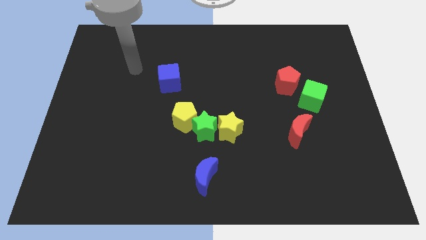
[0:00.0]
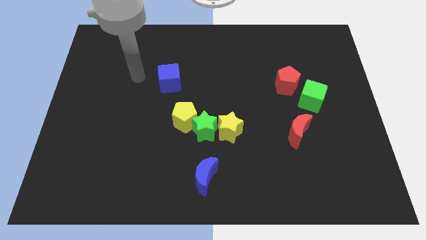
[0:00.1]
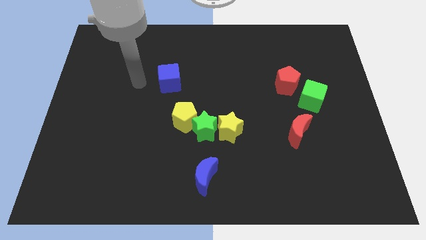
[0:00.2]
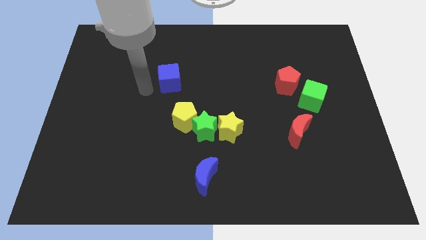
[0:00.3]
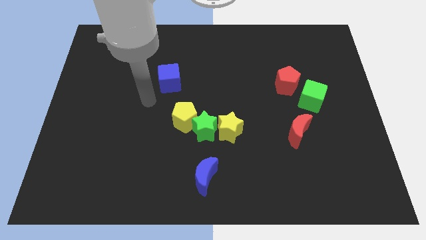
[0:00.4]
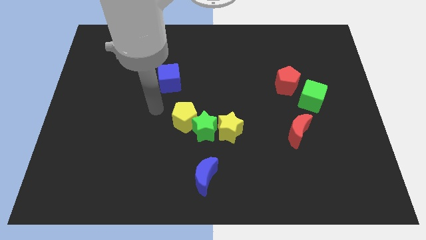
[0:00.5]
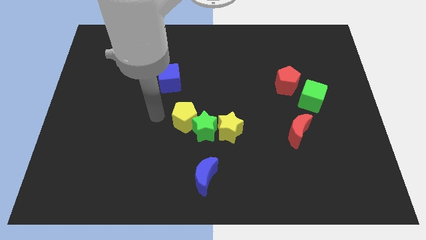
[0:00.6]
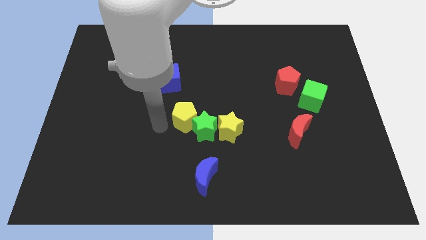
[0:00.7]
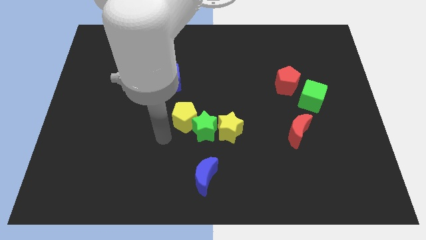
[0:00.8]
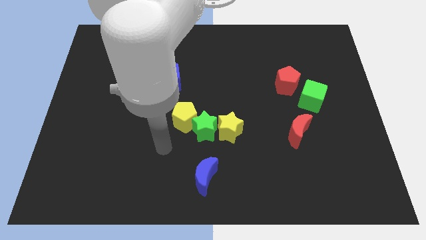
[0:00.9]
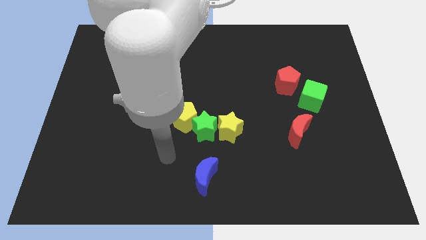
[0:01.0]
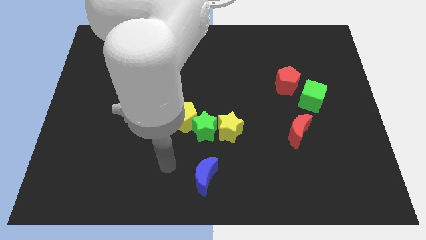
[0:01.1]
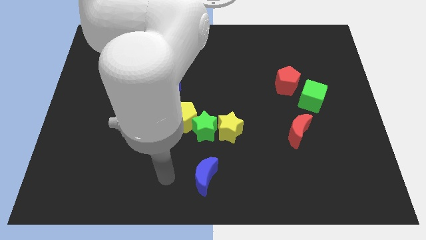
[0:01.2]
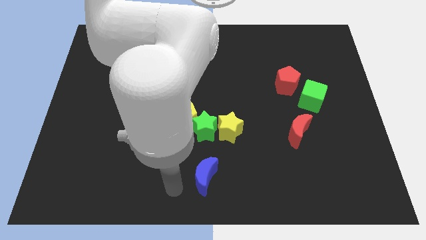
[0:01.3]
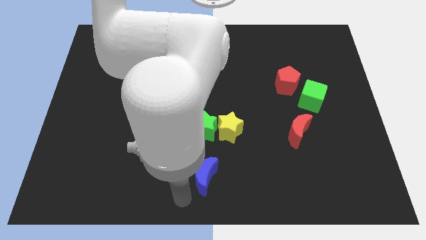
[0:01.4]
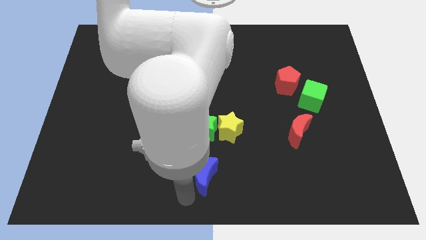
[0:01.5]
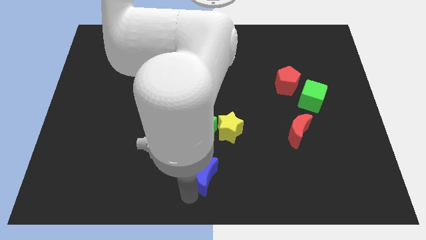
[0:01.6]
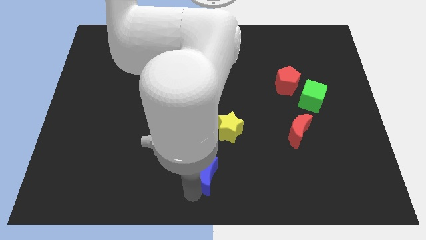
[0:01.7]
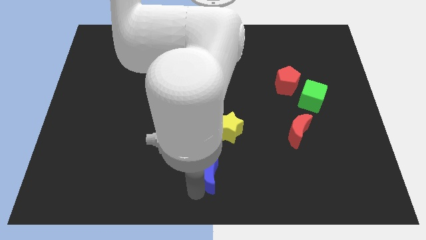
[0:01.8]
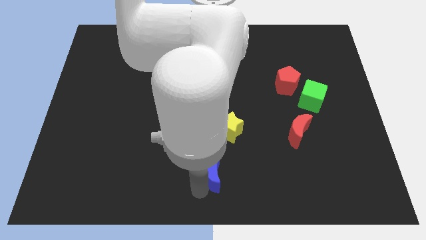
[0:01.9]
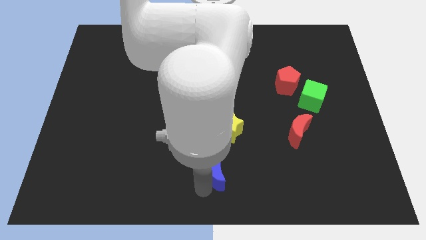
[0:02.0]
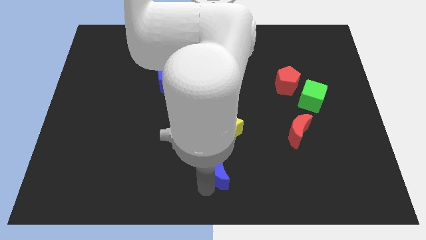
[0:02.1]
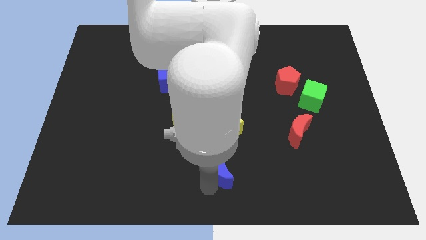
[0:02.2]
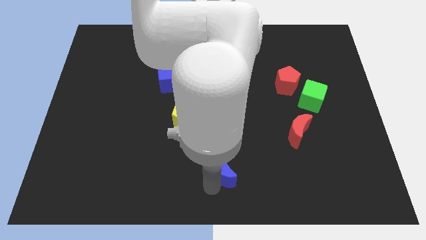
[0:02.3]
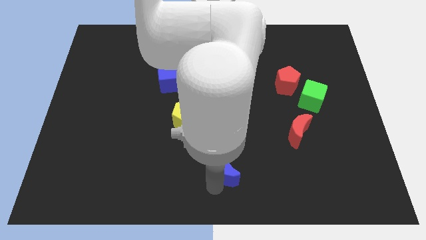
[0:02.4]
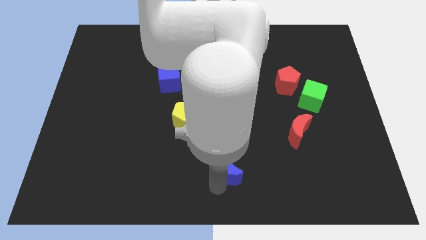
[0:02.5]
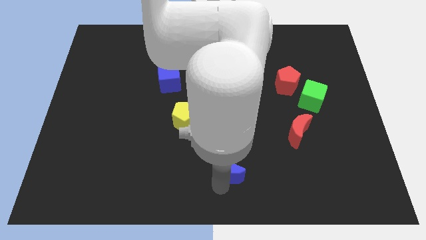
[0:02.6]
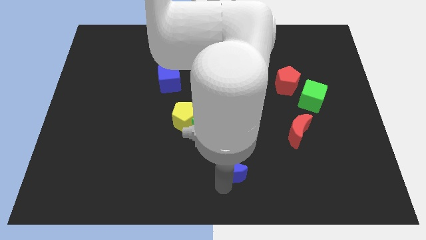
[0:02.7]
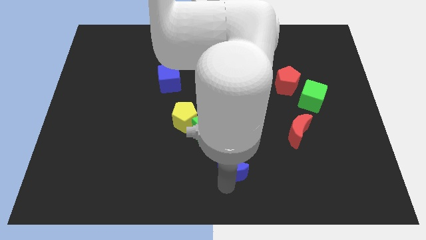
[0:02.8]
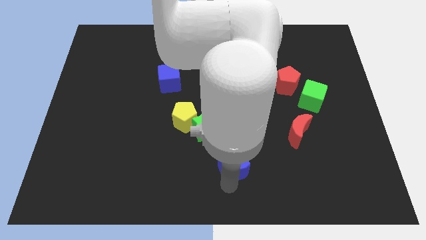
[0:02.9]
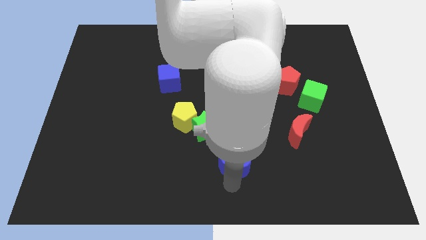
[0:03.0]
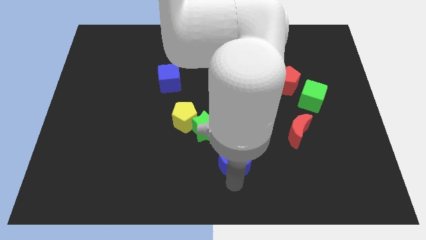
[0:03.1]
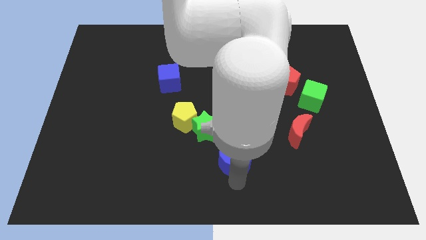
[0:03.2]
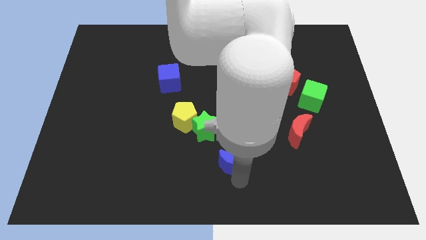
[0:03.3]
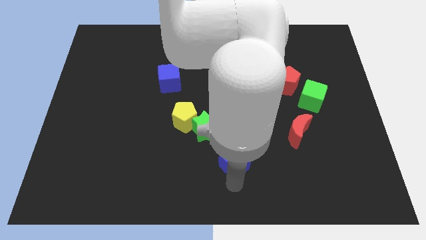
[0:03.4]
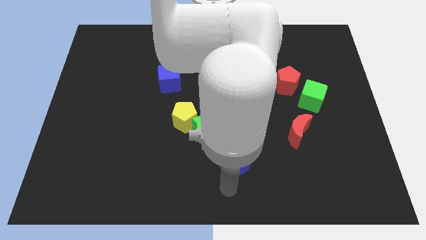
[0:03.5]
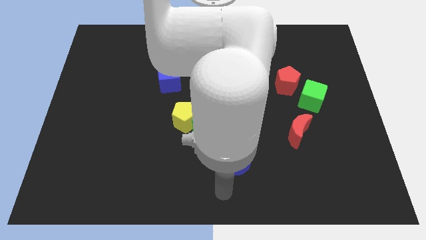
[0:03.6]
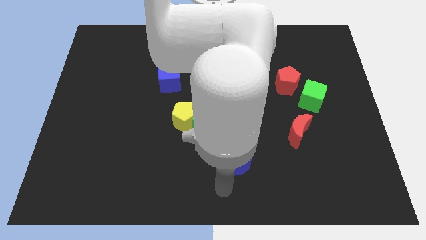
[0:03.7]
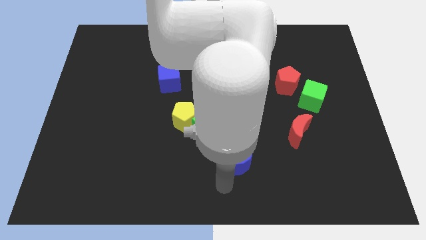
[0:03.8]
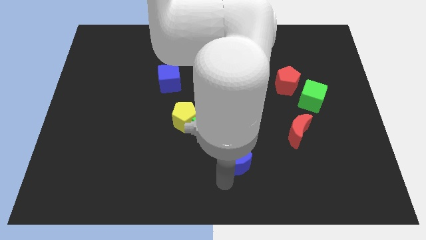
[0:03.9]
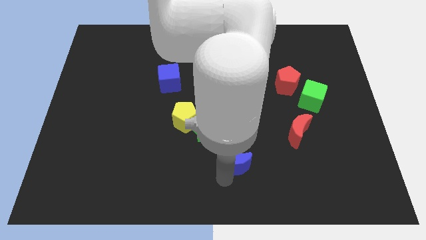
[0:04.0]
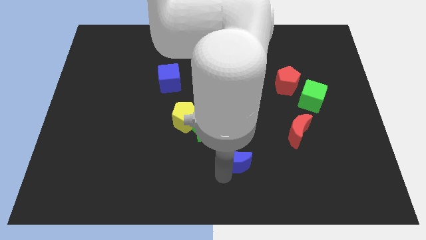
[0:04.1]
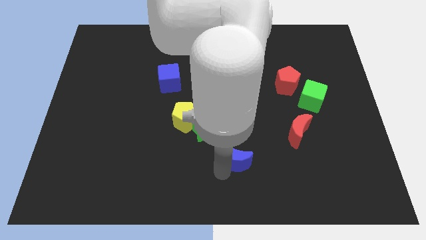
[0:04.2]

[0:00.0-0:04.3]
slide the blue moon upwards and to the right diagonally slightly

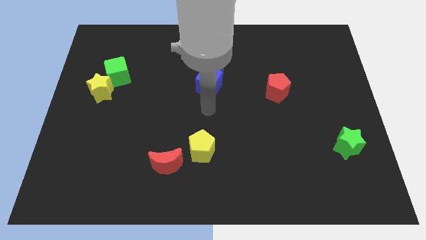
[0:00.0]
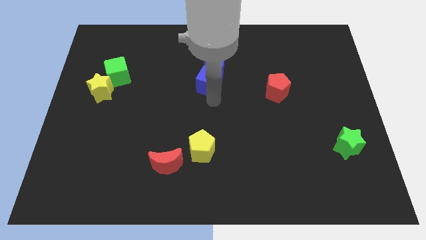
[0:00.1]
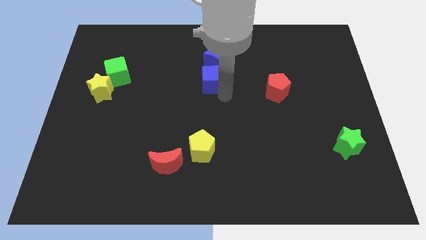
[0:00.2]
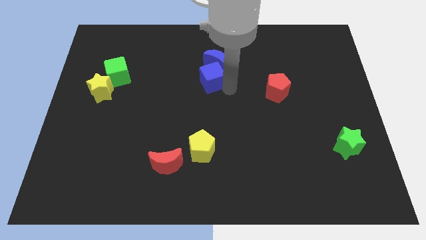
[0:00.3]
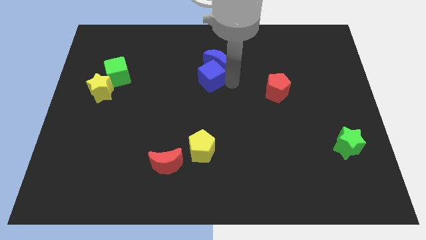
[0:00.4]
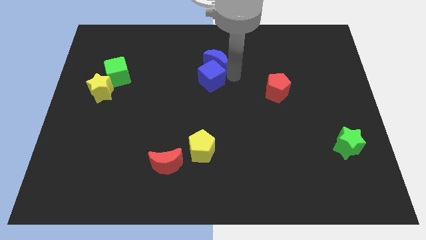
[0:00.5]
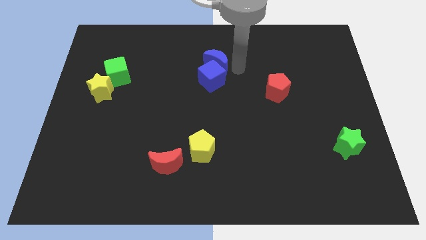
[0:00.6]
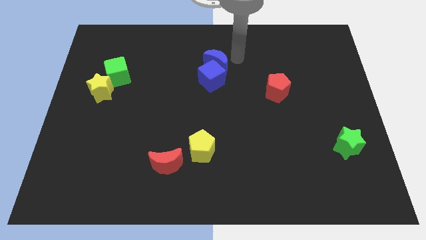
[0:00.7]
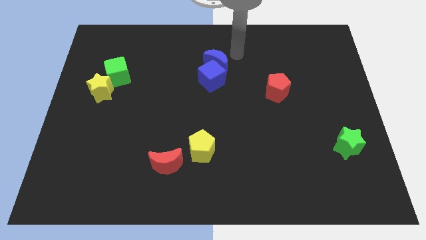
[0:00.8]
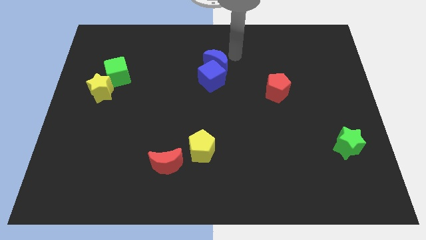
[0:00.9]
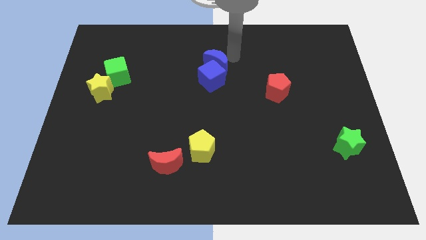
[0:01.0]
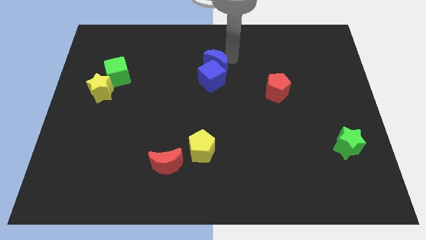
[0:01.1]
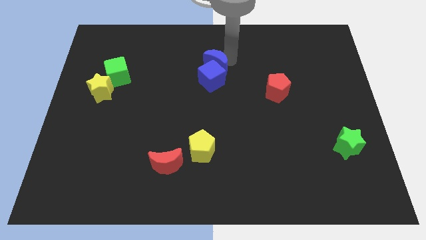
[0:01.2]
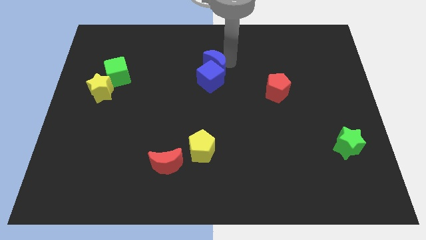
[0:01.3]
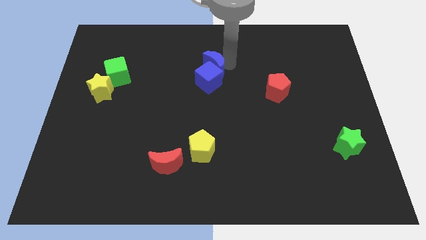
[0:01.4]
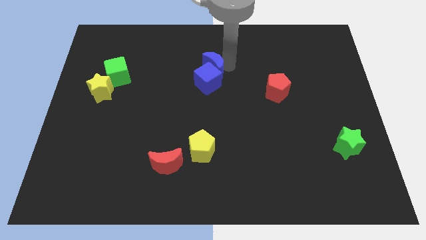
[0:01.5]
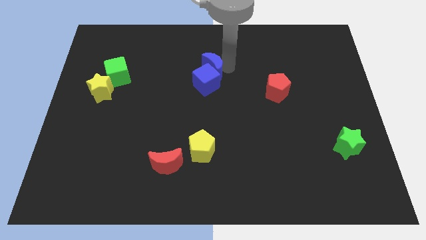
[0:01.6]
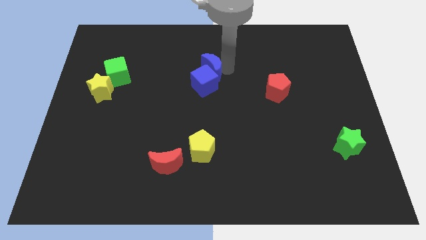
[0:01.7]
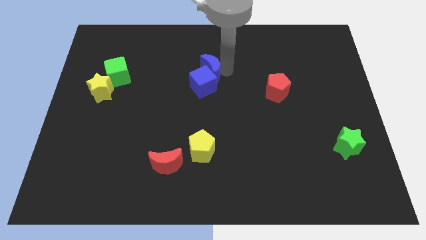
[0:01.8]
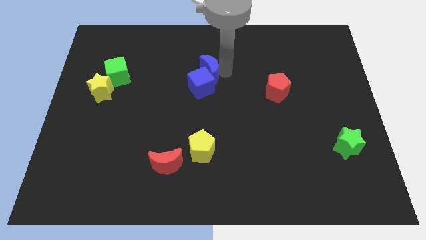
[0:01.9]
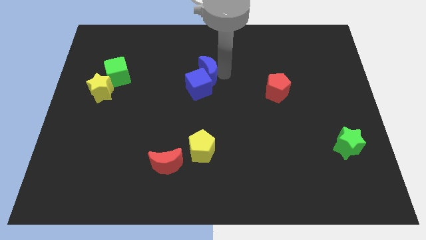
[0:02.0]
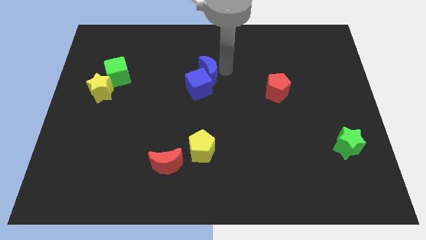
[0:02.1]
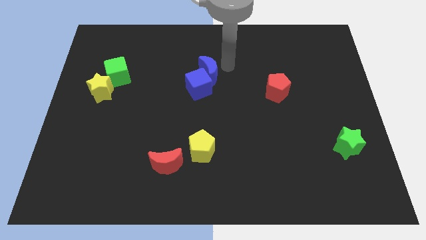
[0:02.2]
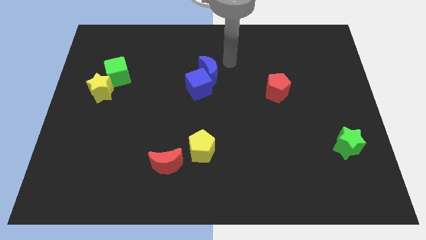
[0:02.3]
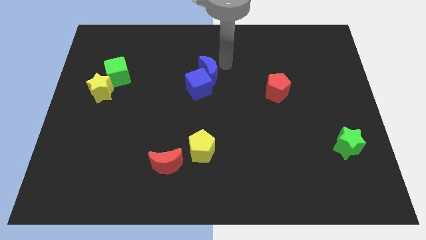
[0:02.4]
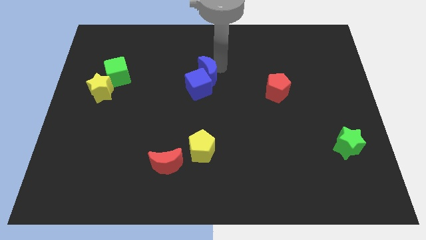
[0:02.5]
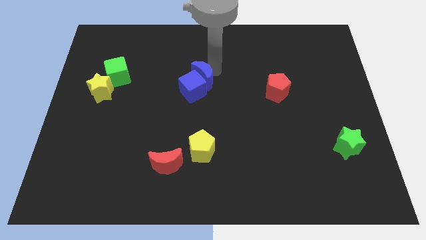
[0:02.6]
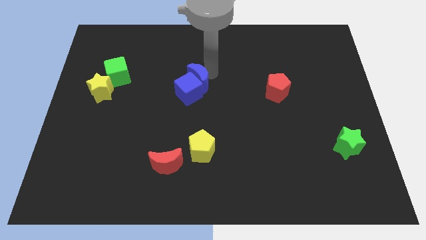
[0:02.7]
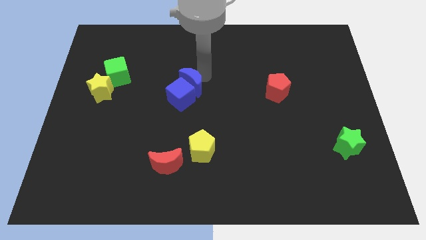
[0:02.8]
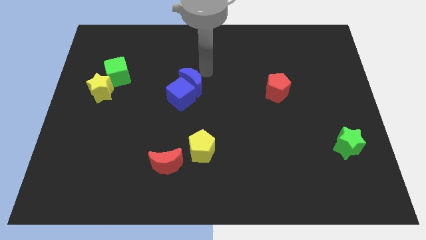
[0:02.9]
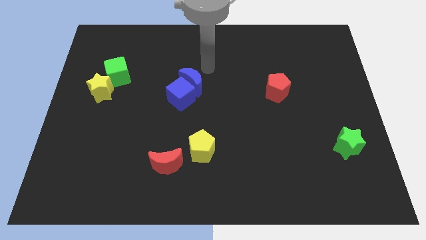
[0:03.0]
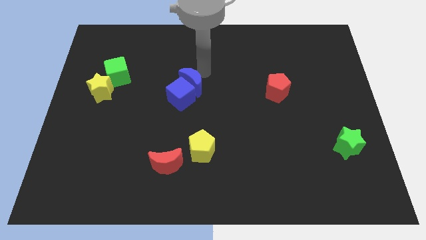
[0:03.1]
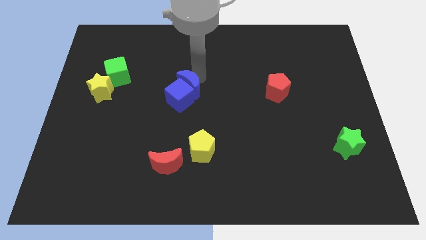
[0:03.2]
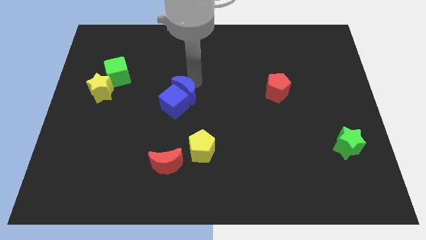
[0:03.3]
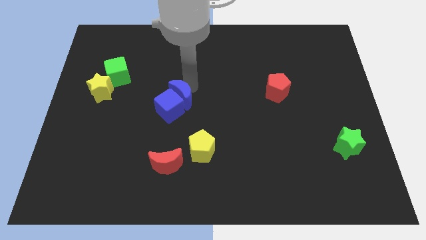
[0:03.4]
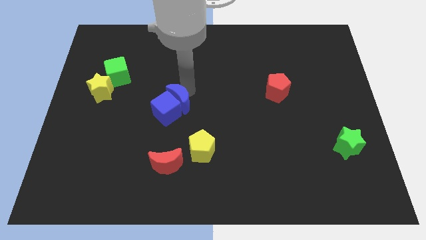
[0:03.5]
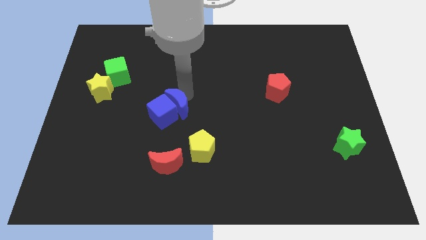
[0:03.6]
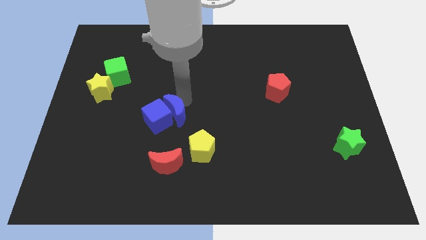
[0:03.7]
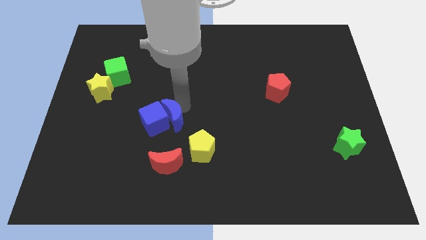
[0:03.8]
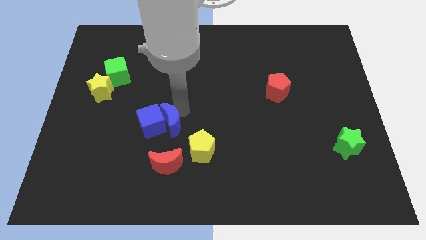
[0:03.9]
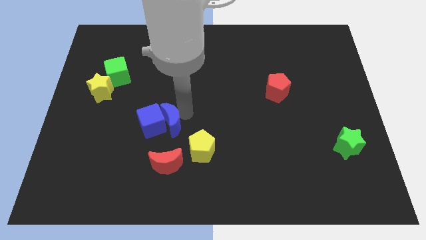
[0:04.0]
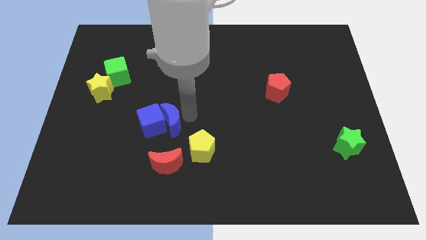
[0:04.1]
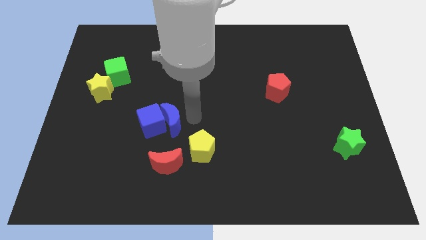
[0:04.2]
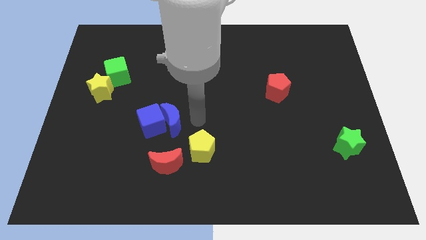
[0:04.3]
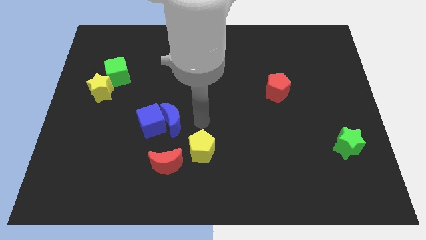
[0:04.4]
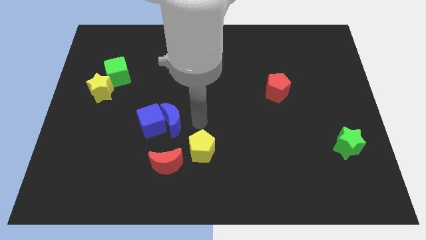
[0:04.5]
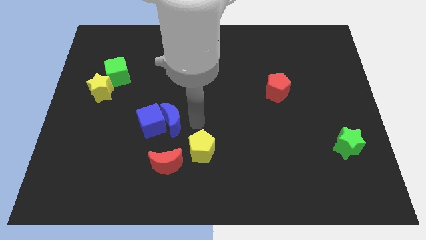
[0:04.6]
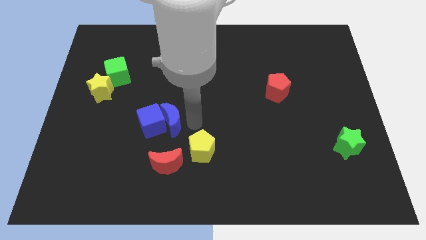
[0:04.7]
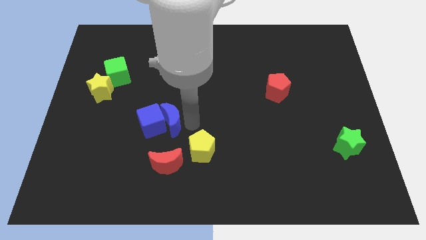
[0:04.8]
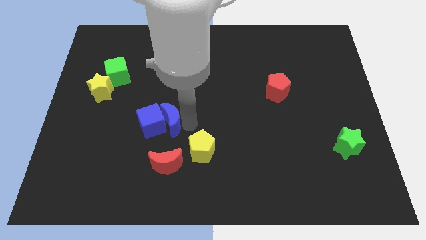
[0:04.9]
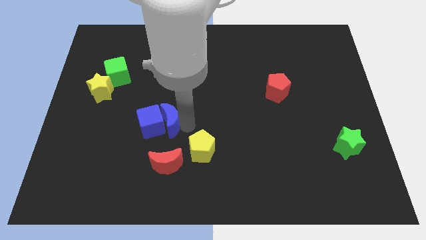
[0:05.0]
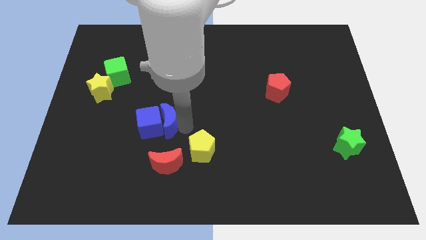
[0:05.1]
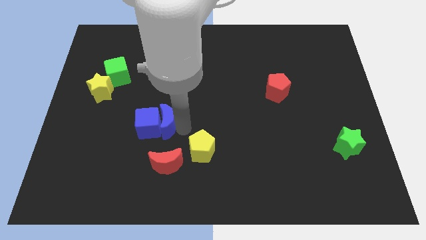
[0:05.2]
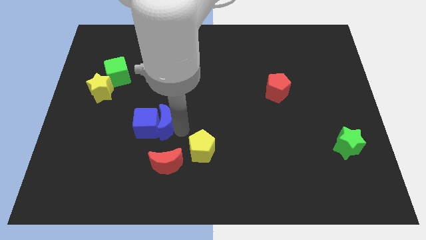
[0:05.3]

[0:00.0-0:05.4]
slide the blue moon downwards and left diagonally
